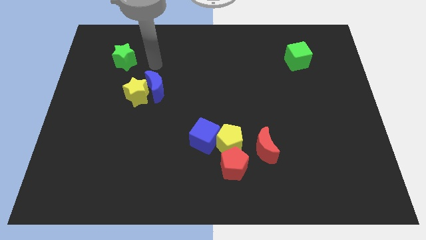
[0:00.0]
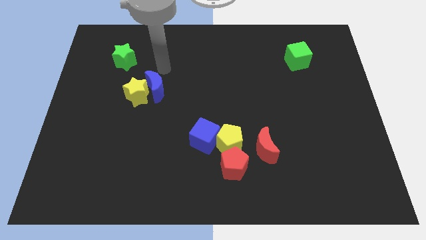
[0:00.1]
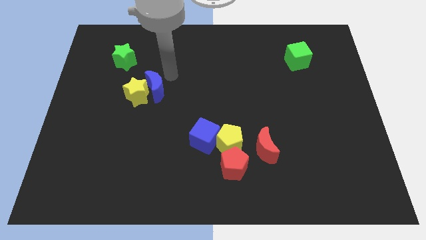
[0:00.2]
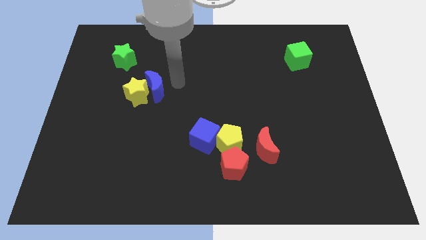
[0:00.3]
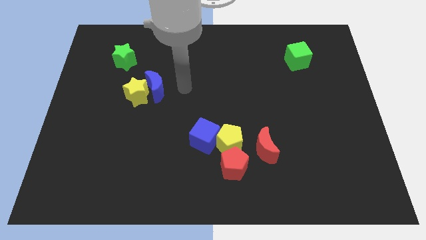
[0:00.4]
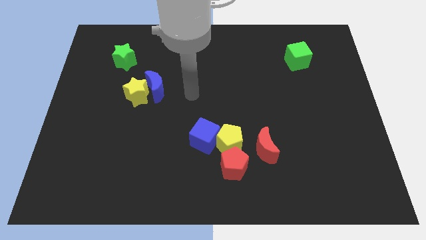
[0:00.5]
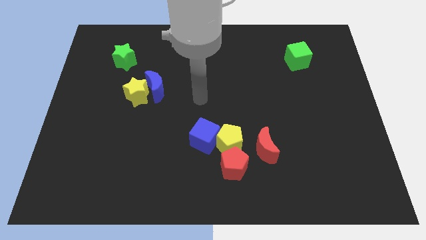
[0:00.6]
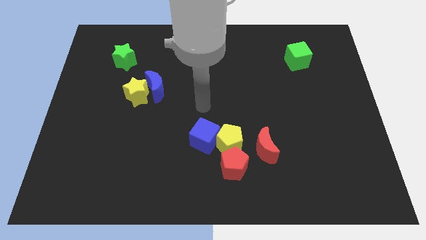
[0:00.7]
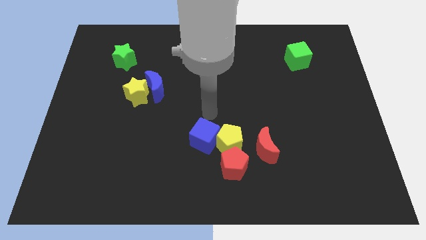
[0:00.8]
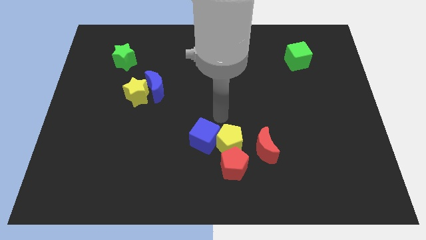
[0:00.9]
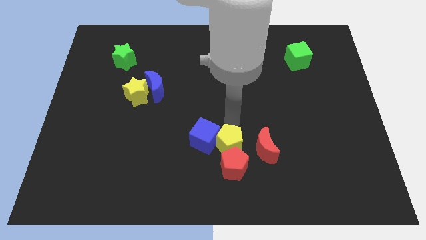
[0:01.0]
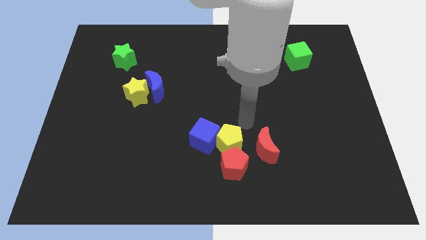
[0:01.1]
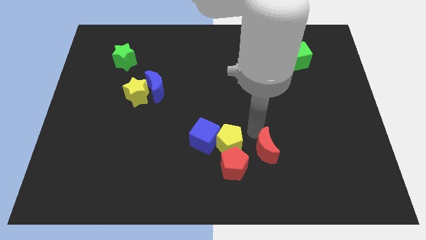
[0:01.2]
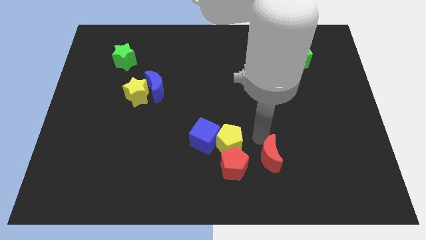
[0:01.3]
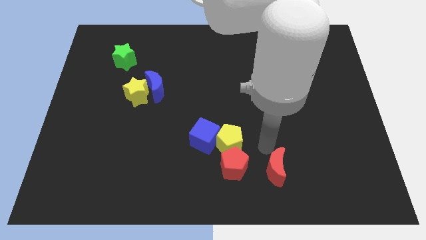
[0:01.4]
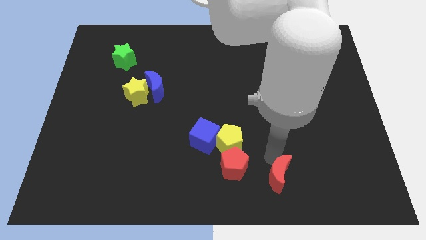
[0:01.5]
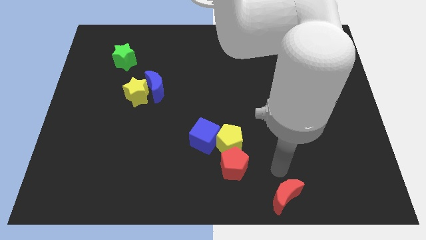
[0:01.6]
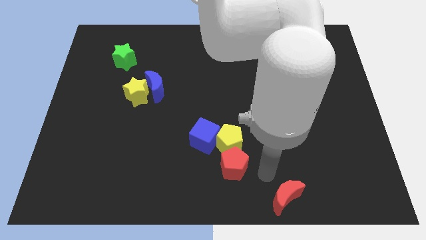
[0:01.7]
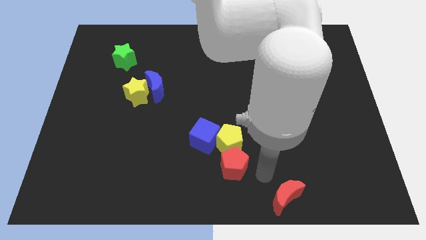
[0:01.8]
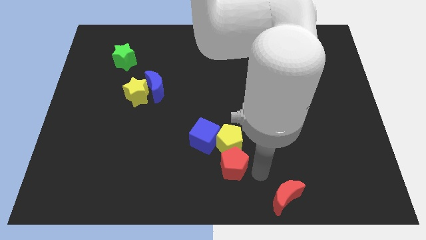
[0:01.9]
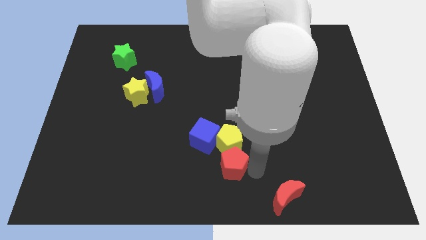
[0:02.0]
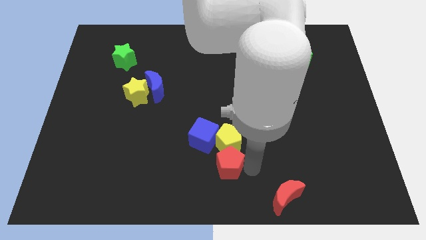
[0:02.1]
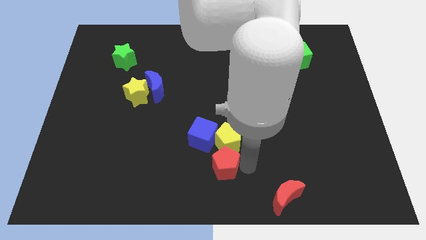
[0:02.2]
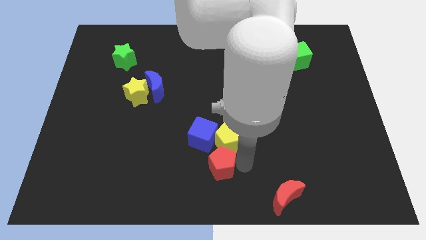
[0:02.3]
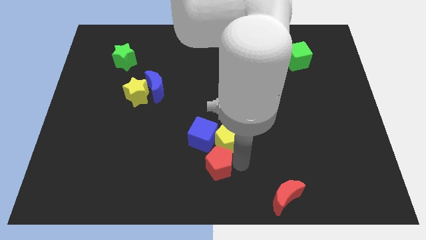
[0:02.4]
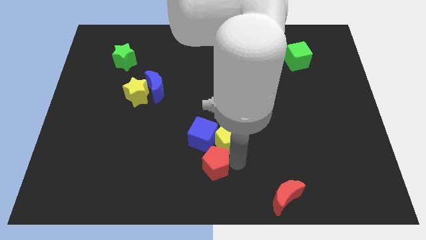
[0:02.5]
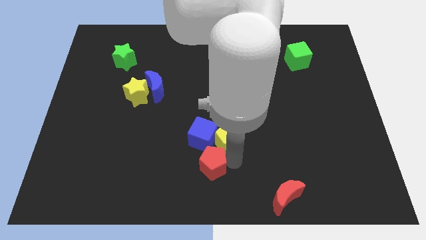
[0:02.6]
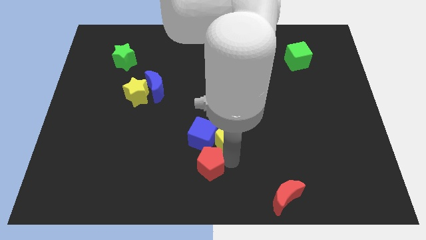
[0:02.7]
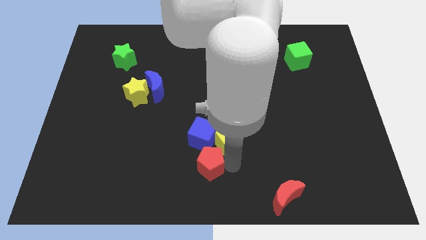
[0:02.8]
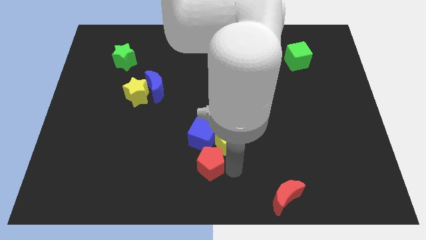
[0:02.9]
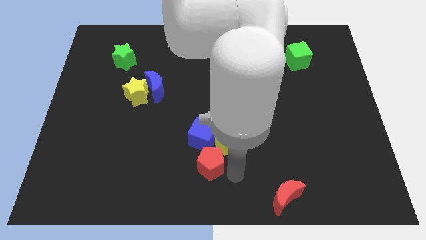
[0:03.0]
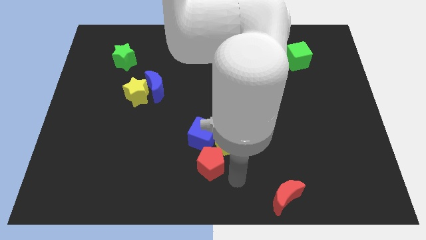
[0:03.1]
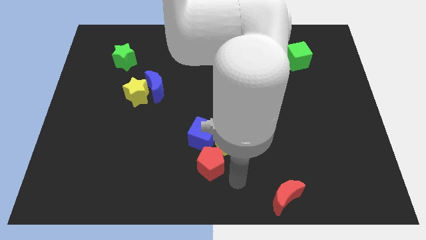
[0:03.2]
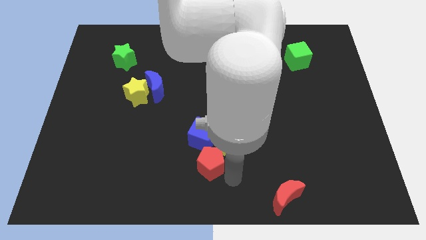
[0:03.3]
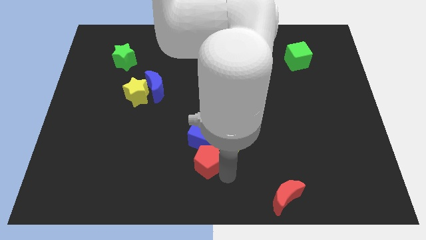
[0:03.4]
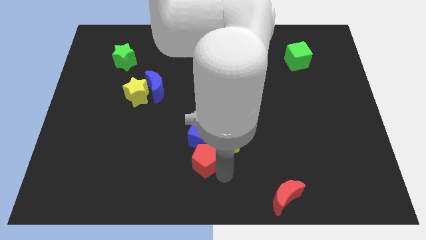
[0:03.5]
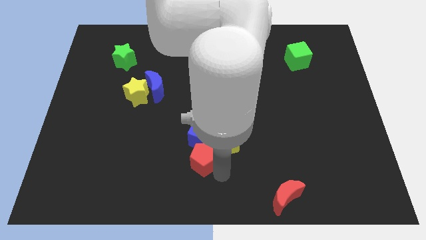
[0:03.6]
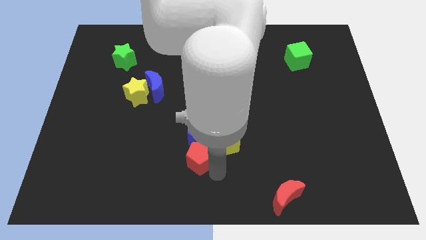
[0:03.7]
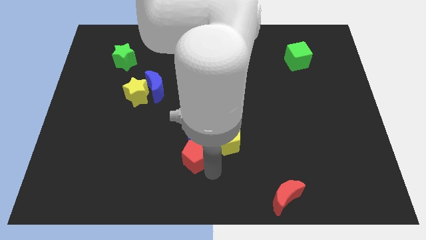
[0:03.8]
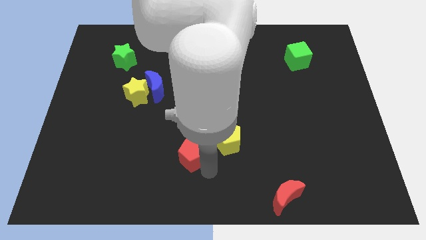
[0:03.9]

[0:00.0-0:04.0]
move the red pentagon upwards and then to the left a little bit

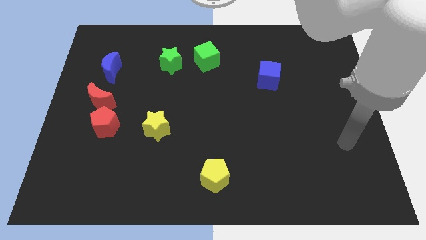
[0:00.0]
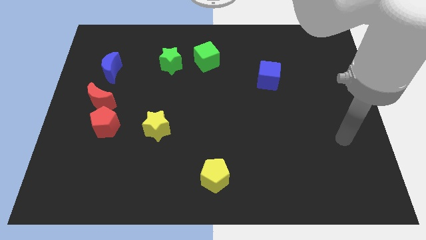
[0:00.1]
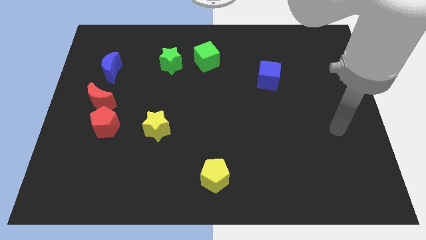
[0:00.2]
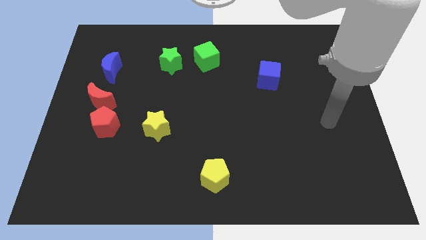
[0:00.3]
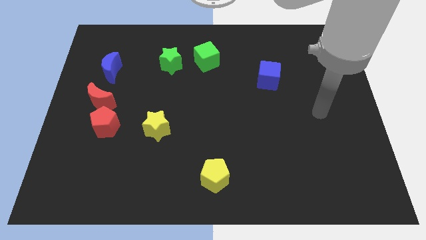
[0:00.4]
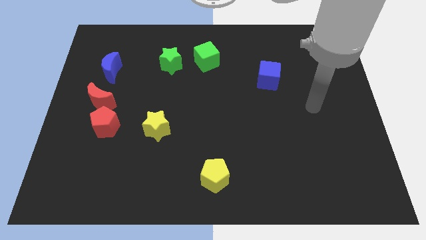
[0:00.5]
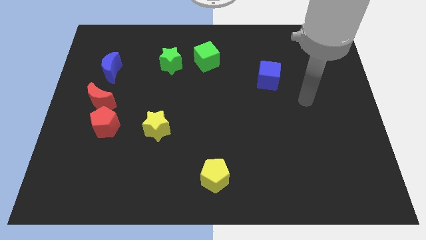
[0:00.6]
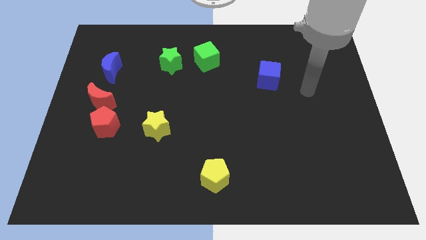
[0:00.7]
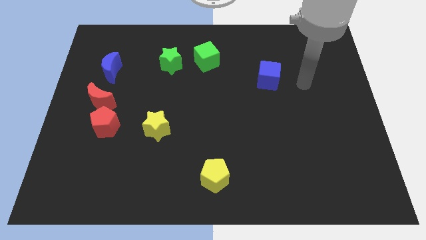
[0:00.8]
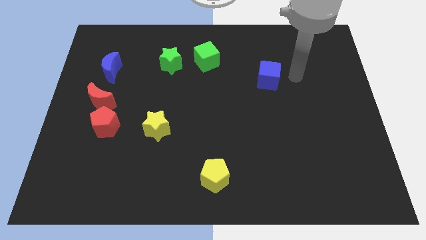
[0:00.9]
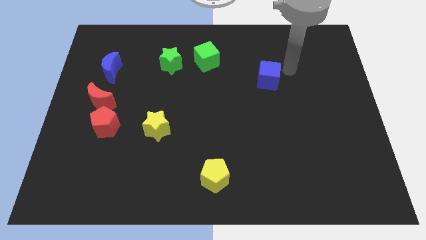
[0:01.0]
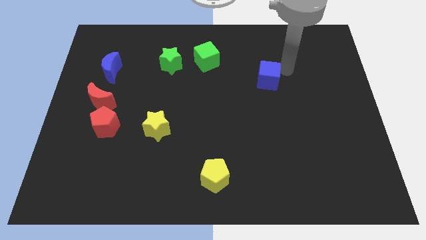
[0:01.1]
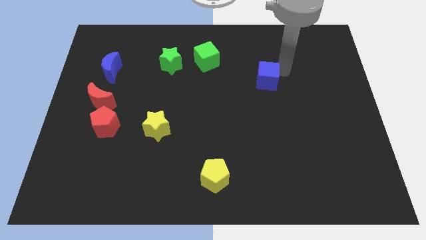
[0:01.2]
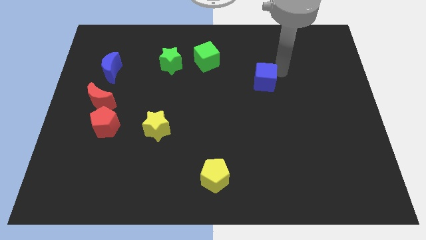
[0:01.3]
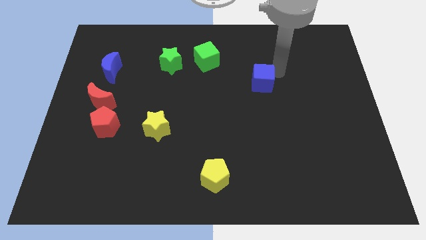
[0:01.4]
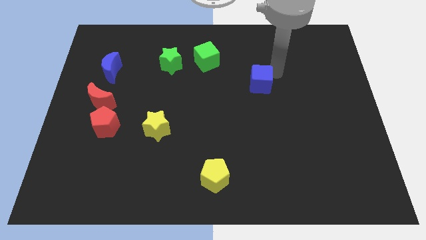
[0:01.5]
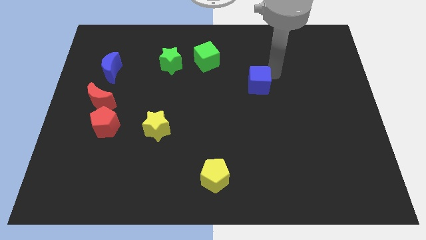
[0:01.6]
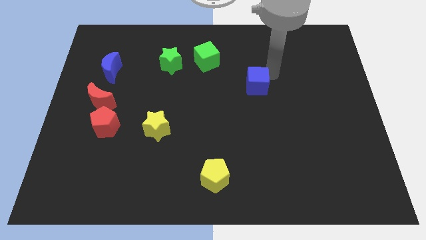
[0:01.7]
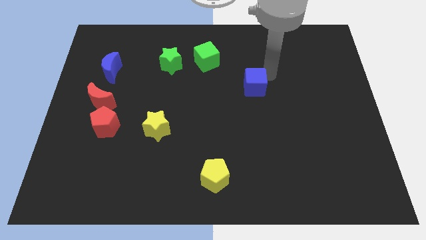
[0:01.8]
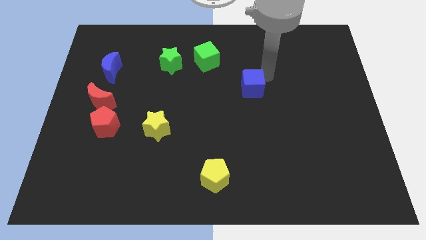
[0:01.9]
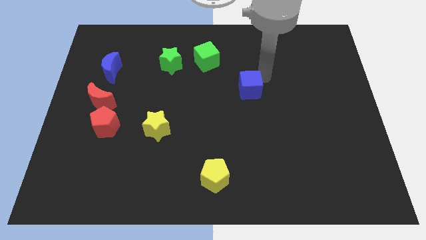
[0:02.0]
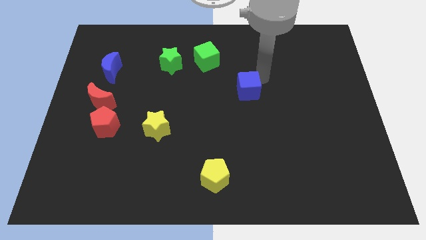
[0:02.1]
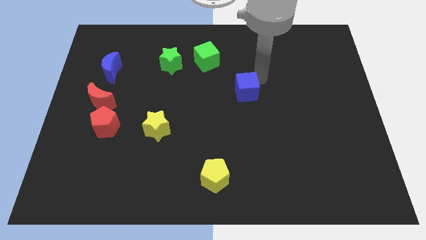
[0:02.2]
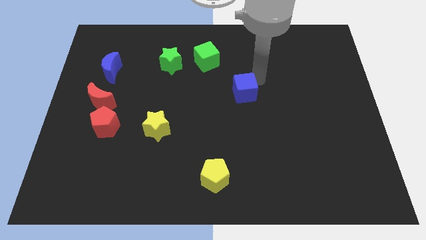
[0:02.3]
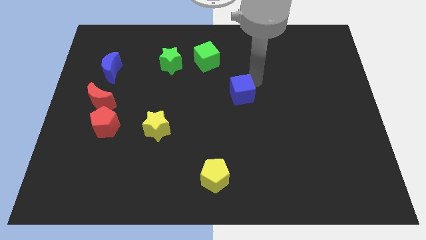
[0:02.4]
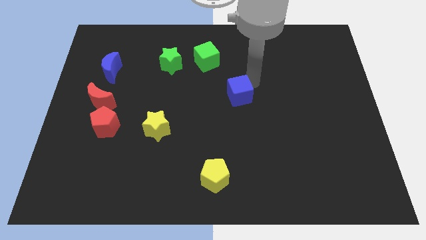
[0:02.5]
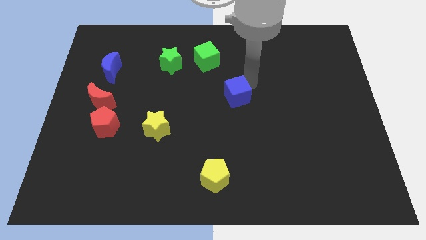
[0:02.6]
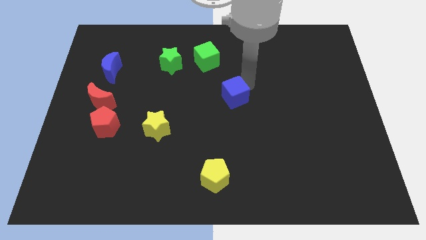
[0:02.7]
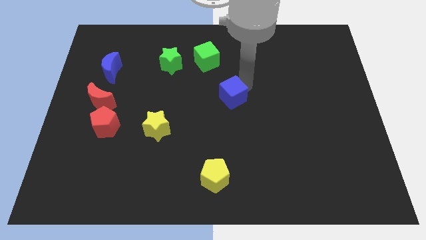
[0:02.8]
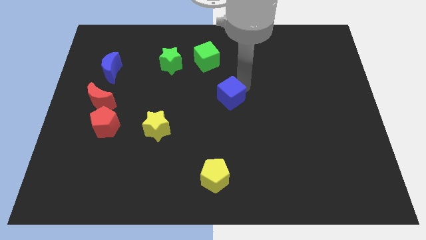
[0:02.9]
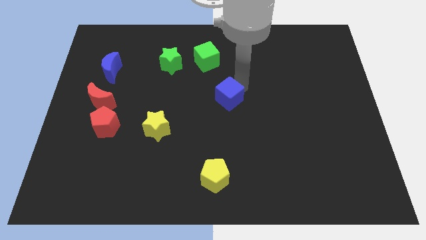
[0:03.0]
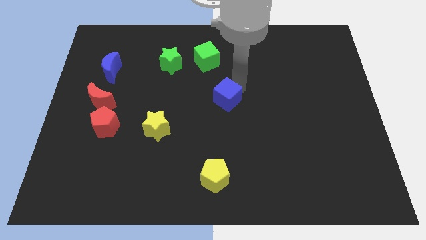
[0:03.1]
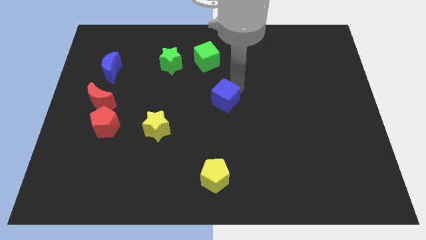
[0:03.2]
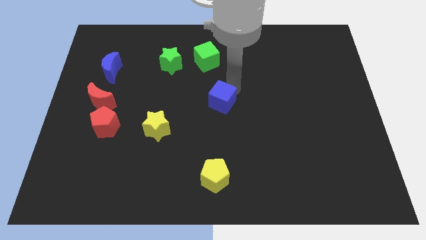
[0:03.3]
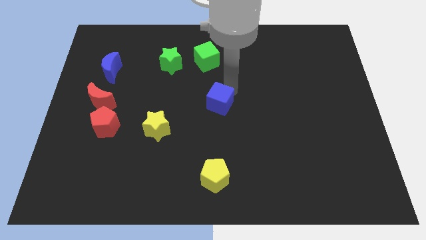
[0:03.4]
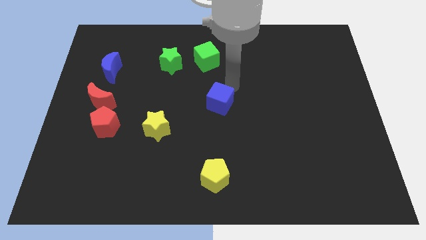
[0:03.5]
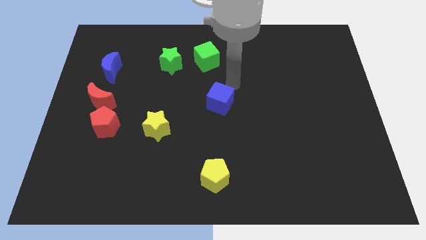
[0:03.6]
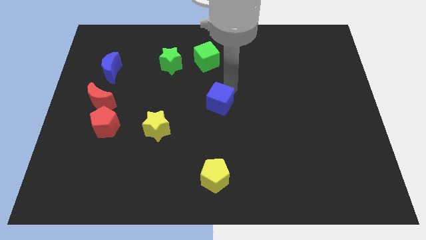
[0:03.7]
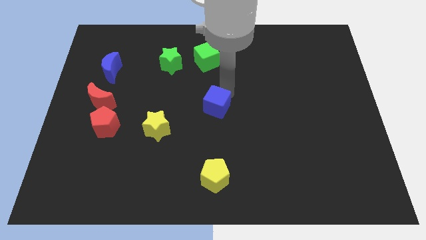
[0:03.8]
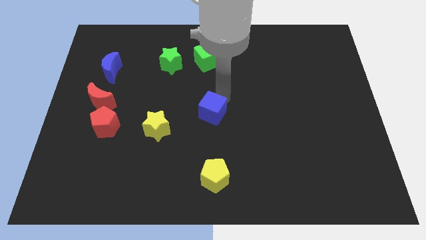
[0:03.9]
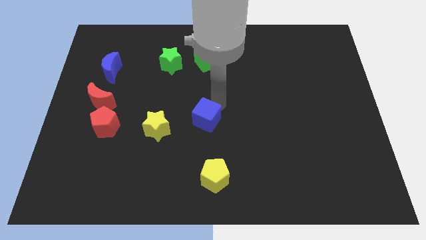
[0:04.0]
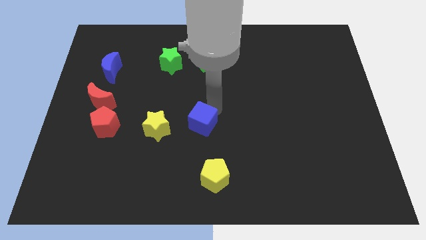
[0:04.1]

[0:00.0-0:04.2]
slide the blue cube down and then left
